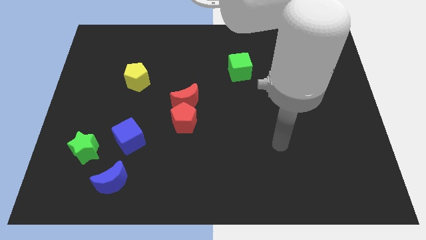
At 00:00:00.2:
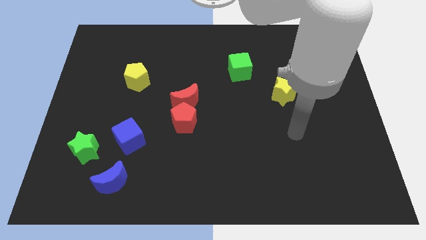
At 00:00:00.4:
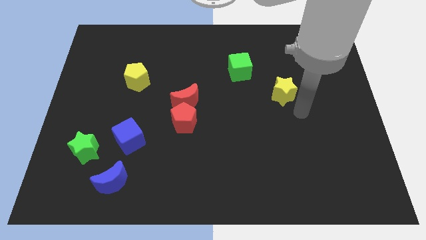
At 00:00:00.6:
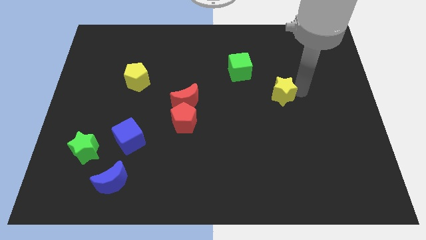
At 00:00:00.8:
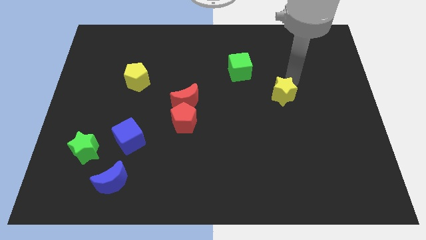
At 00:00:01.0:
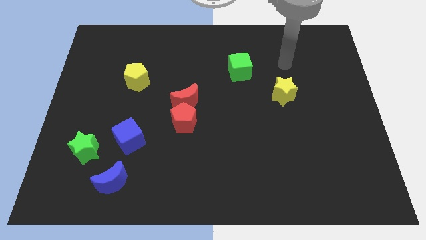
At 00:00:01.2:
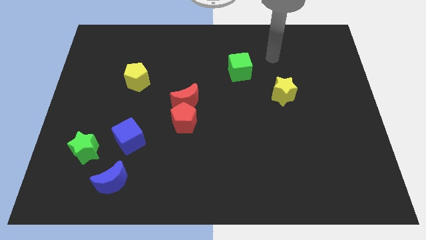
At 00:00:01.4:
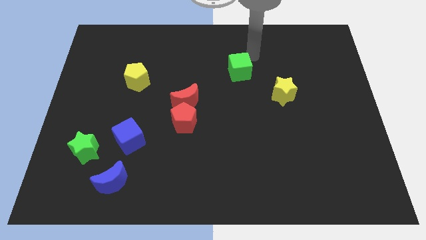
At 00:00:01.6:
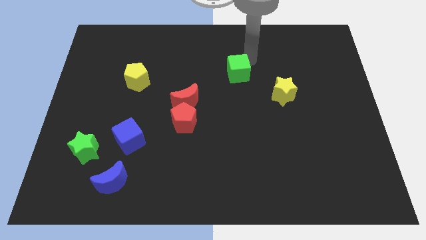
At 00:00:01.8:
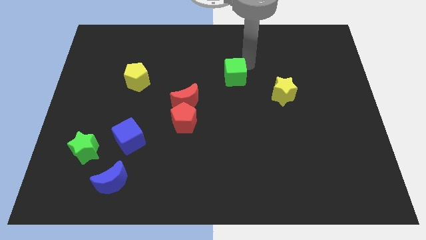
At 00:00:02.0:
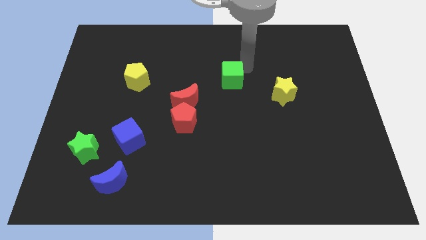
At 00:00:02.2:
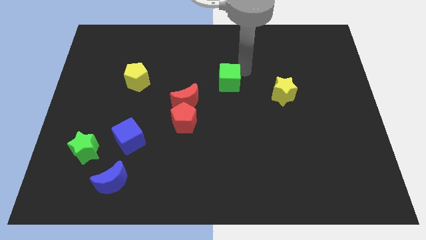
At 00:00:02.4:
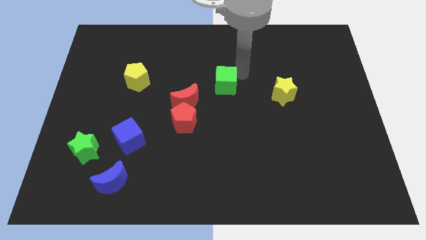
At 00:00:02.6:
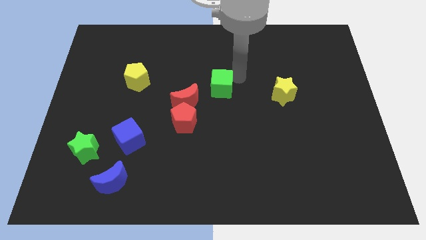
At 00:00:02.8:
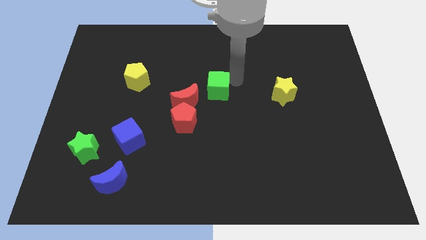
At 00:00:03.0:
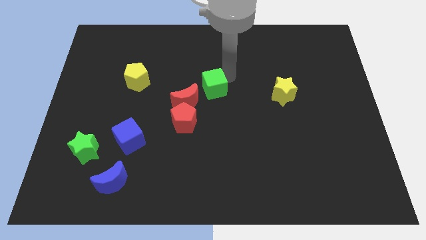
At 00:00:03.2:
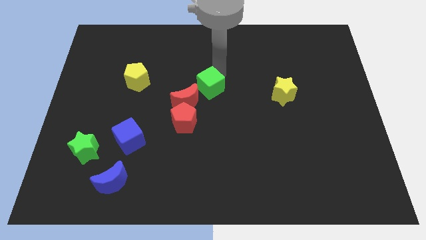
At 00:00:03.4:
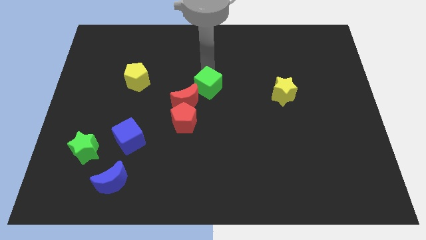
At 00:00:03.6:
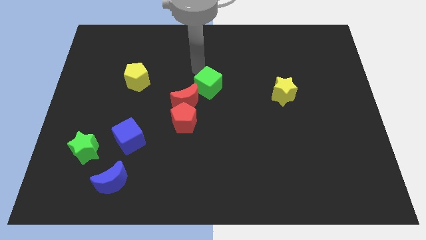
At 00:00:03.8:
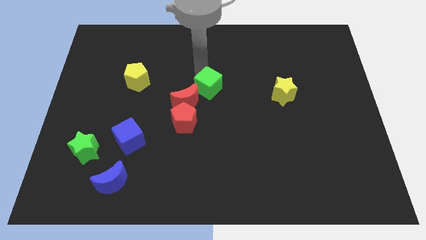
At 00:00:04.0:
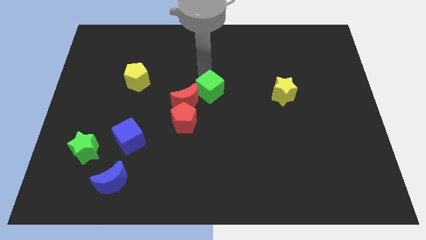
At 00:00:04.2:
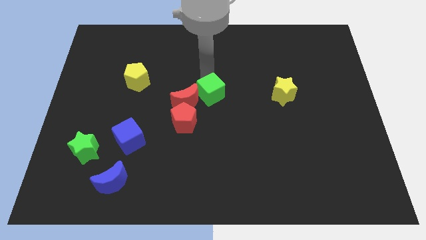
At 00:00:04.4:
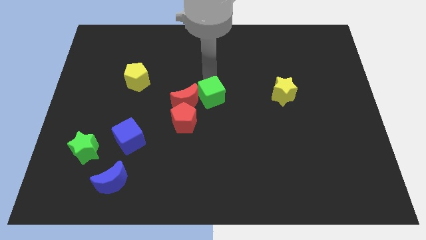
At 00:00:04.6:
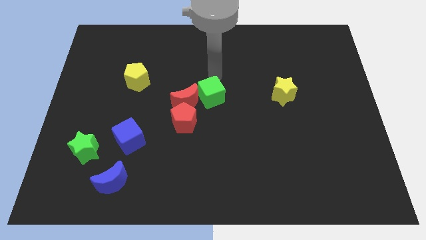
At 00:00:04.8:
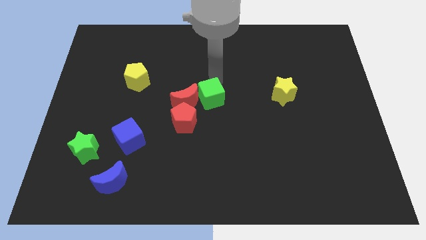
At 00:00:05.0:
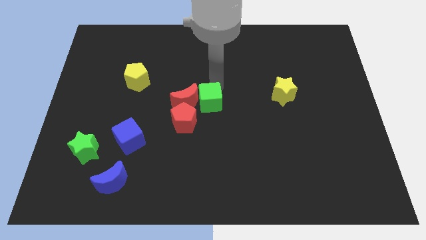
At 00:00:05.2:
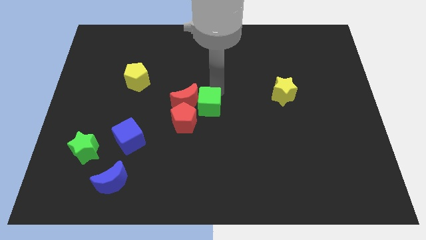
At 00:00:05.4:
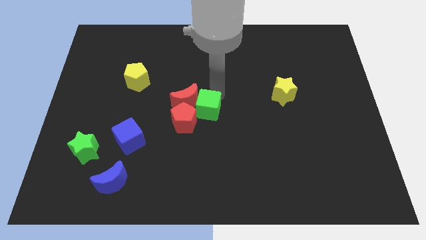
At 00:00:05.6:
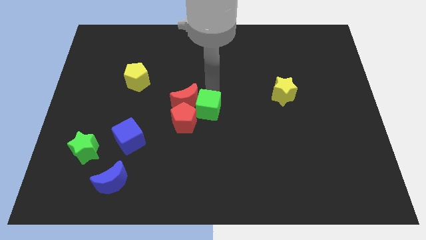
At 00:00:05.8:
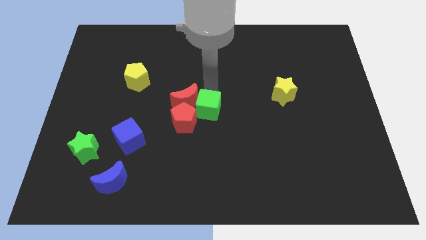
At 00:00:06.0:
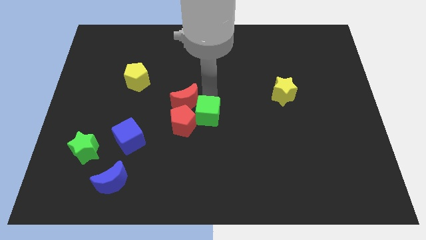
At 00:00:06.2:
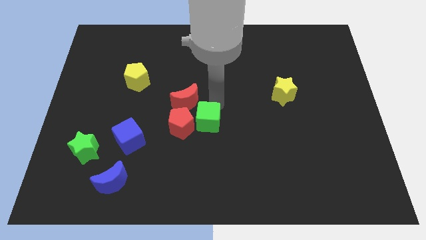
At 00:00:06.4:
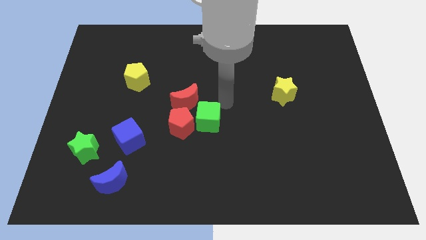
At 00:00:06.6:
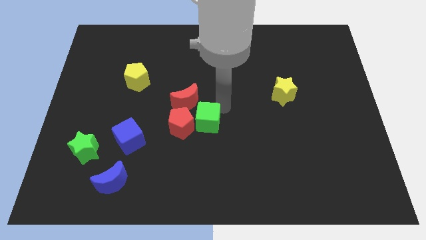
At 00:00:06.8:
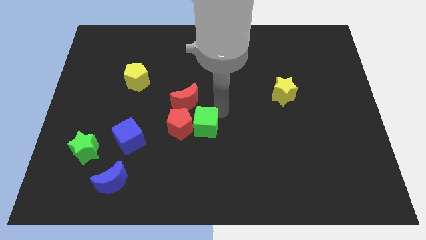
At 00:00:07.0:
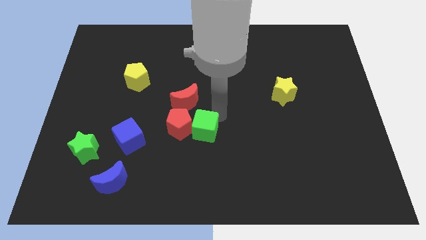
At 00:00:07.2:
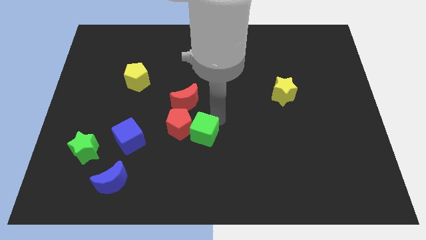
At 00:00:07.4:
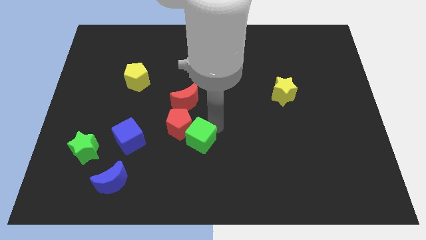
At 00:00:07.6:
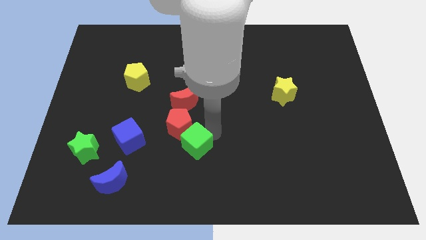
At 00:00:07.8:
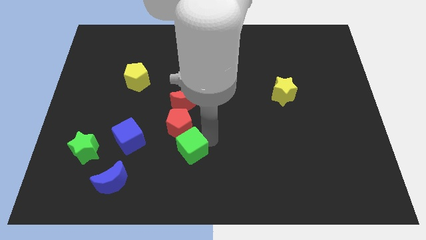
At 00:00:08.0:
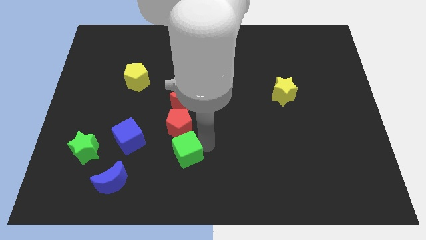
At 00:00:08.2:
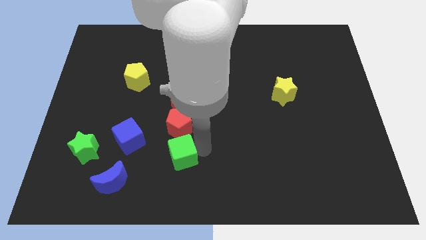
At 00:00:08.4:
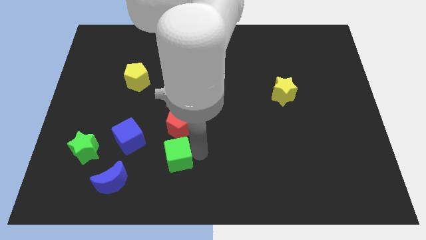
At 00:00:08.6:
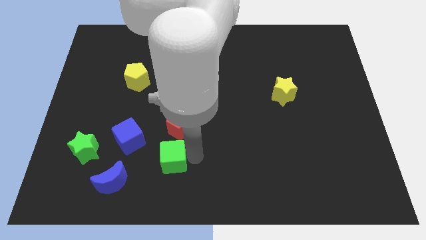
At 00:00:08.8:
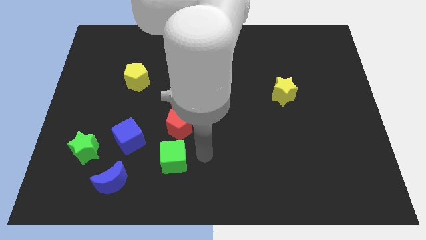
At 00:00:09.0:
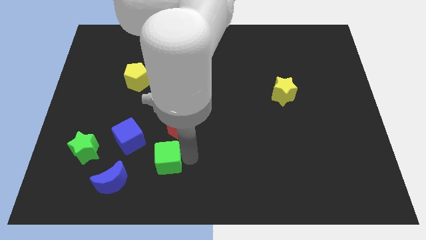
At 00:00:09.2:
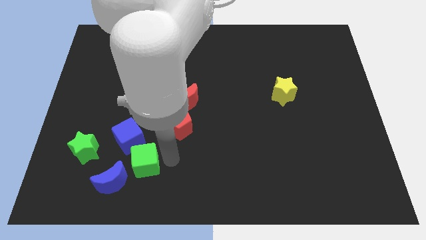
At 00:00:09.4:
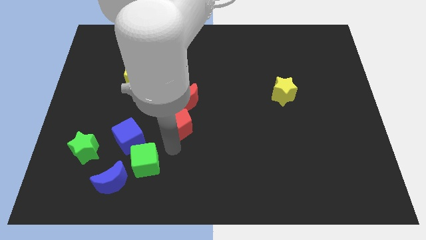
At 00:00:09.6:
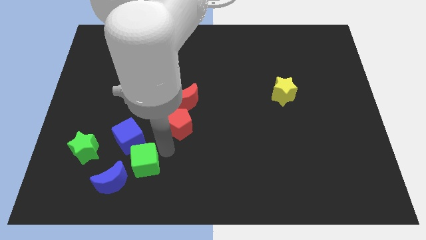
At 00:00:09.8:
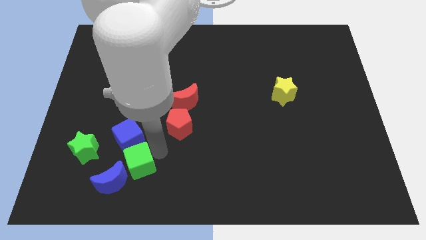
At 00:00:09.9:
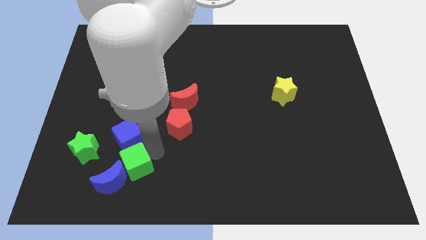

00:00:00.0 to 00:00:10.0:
put the green cube towards the blue moon

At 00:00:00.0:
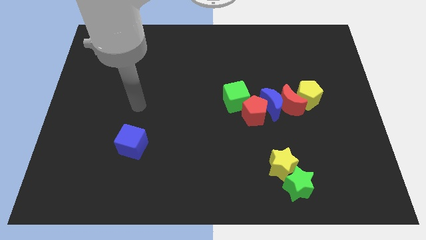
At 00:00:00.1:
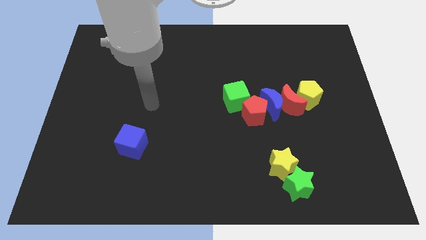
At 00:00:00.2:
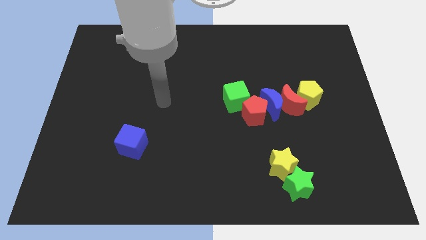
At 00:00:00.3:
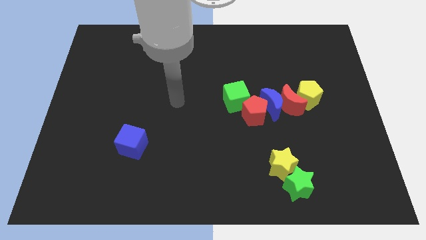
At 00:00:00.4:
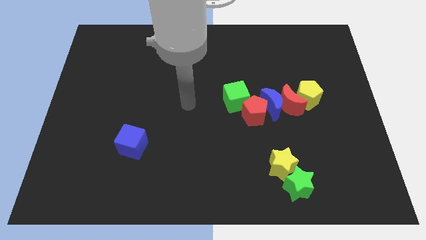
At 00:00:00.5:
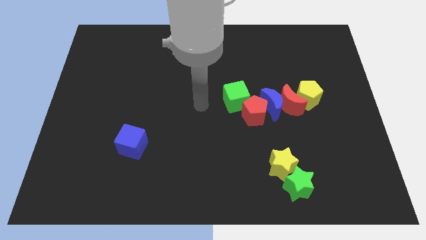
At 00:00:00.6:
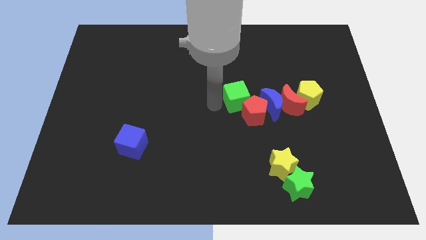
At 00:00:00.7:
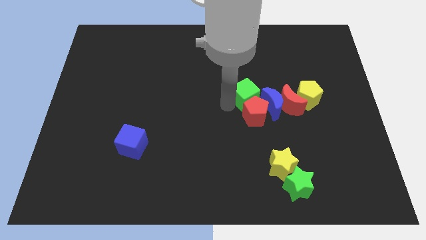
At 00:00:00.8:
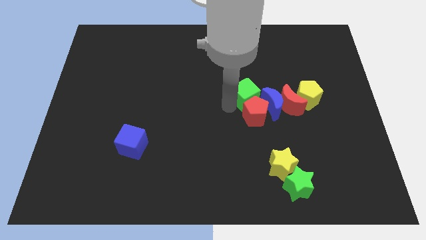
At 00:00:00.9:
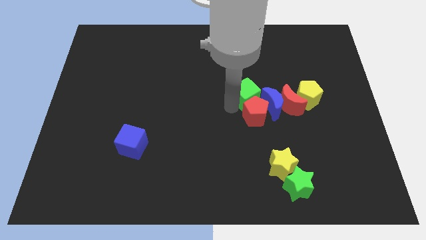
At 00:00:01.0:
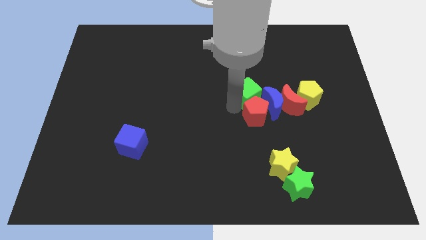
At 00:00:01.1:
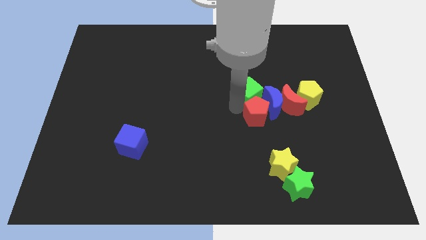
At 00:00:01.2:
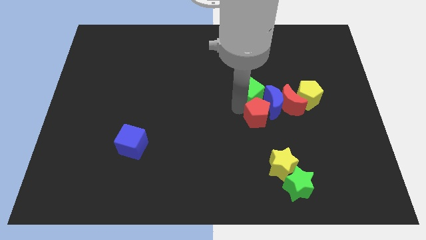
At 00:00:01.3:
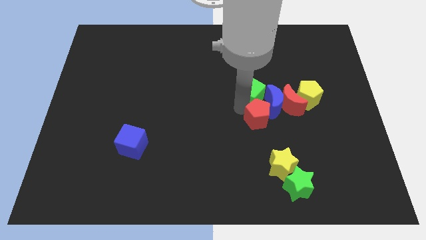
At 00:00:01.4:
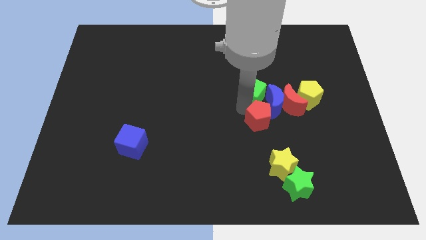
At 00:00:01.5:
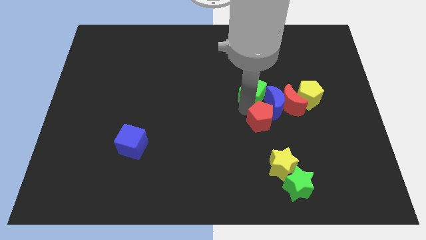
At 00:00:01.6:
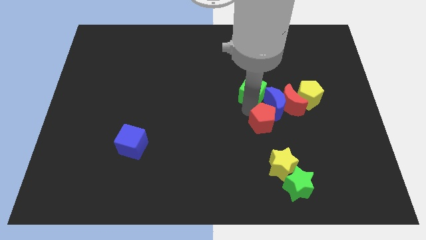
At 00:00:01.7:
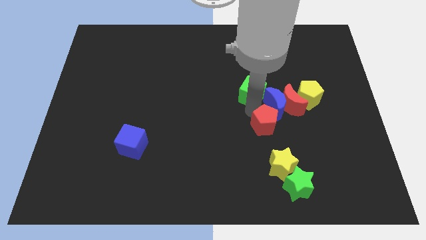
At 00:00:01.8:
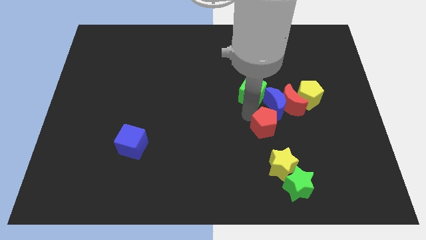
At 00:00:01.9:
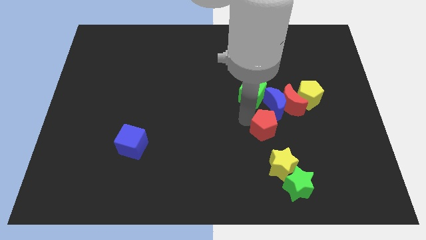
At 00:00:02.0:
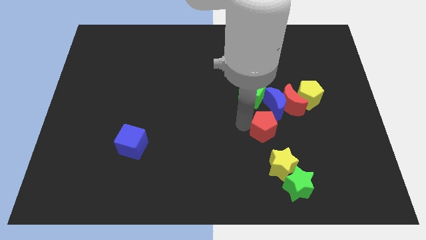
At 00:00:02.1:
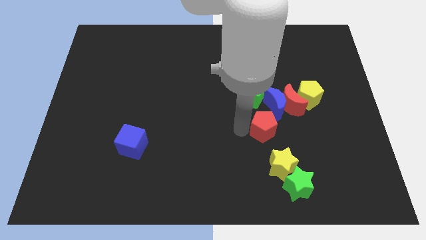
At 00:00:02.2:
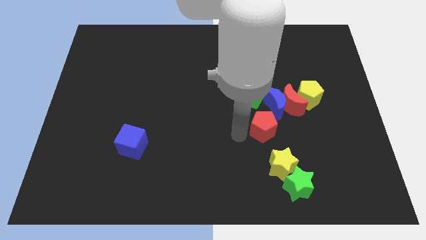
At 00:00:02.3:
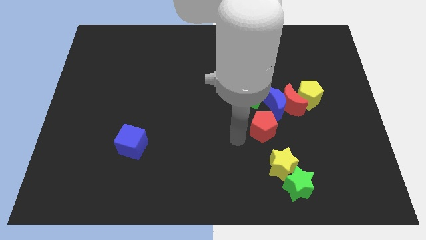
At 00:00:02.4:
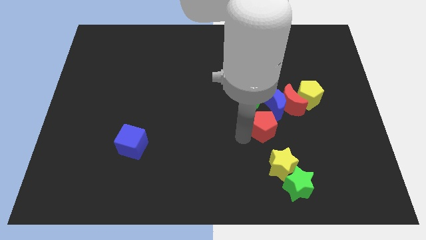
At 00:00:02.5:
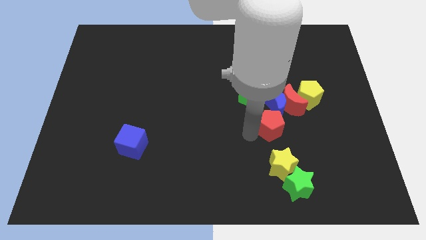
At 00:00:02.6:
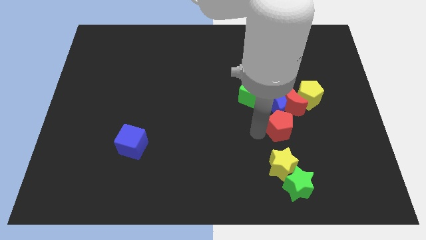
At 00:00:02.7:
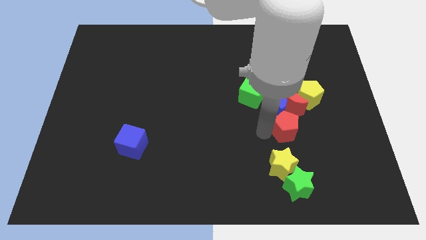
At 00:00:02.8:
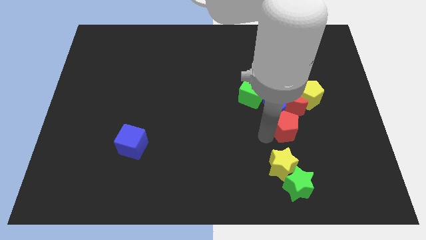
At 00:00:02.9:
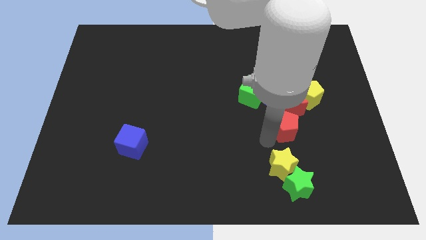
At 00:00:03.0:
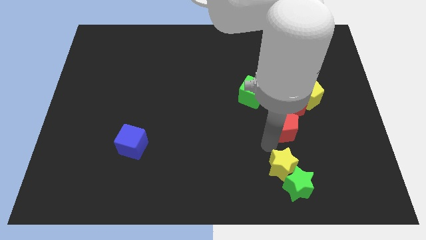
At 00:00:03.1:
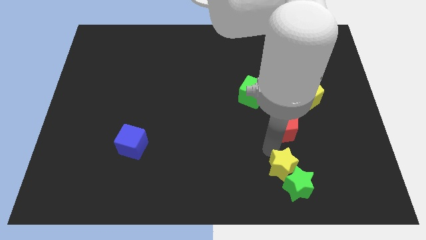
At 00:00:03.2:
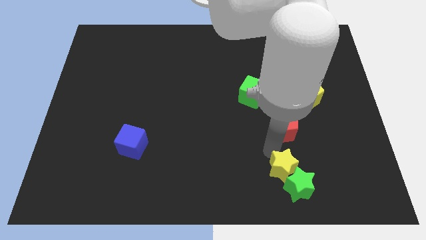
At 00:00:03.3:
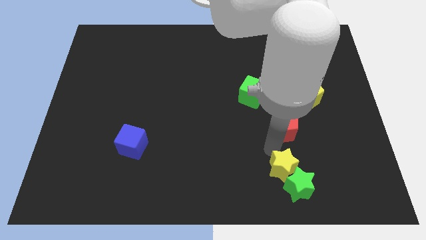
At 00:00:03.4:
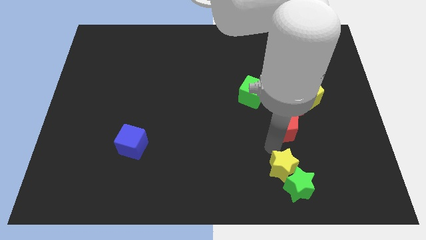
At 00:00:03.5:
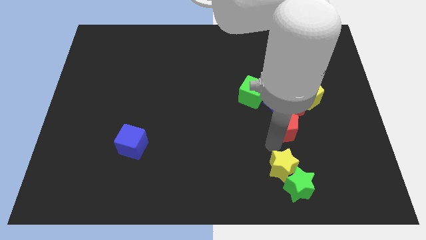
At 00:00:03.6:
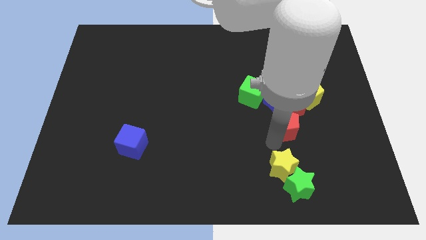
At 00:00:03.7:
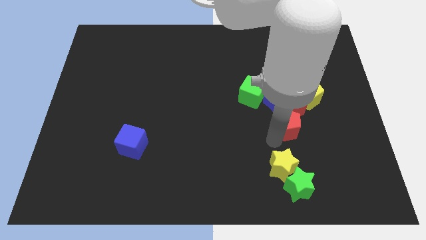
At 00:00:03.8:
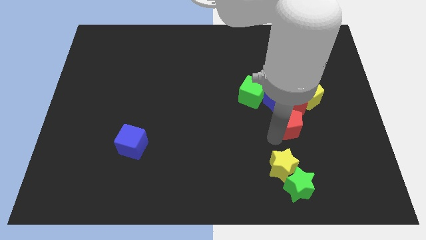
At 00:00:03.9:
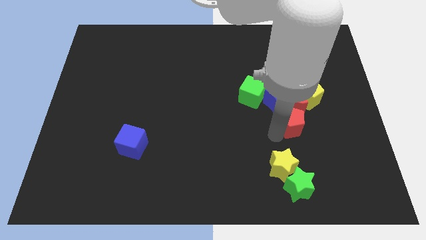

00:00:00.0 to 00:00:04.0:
put the red pentagon to the red moon
